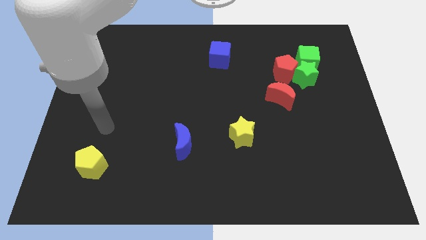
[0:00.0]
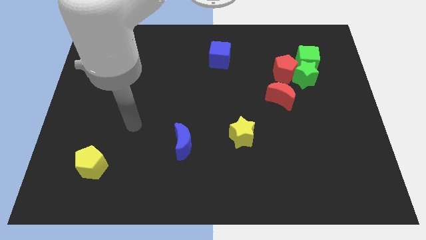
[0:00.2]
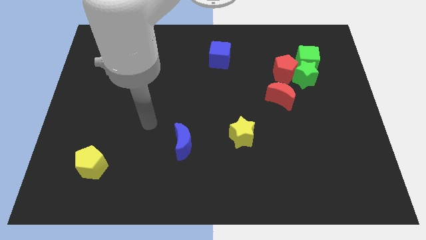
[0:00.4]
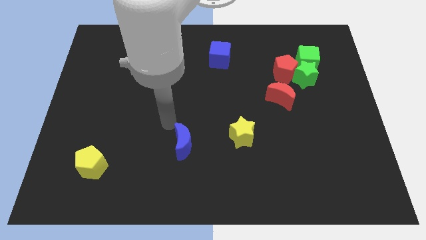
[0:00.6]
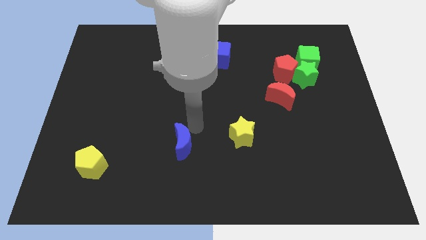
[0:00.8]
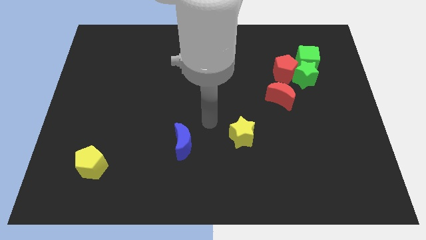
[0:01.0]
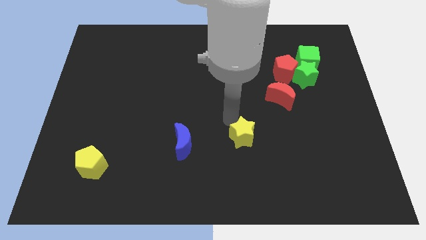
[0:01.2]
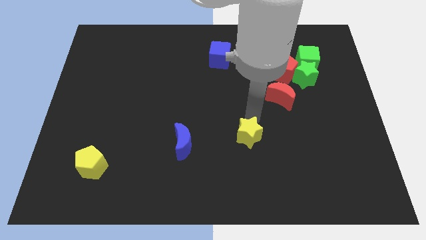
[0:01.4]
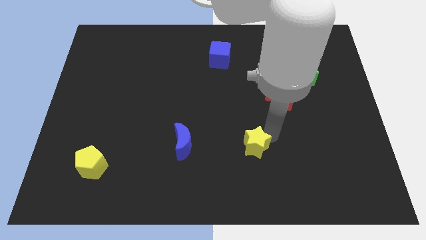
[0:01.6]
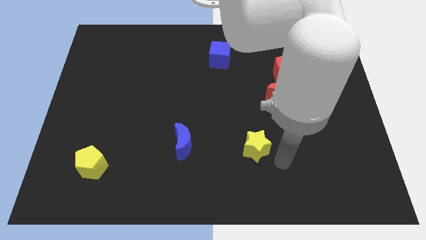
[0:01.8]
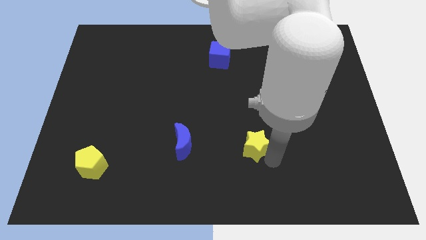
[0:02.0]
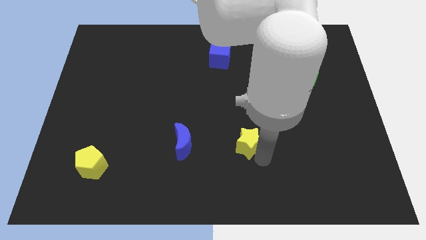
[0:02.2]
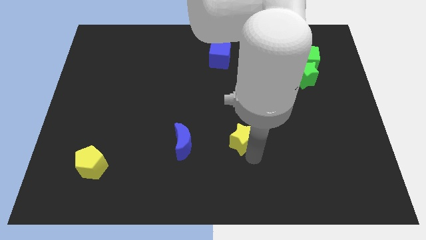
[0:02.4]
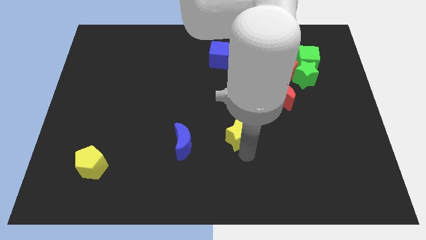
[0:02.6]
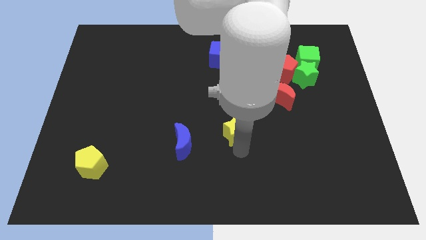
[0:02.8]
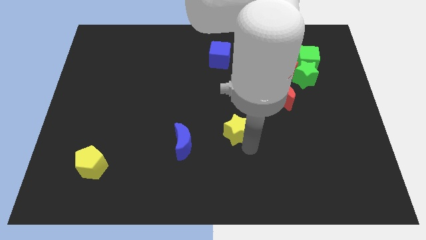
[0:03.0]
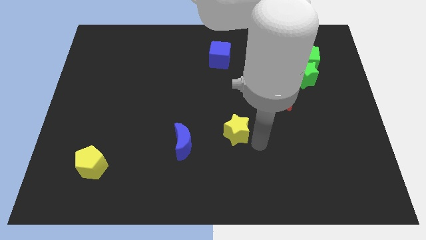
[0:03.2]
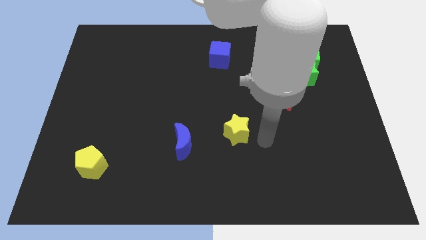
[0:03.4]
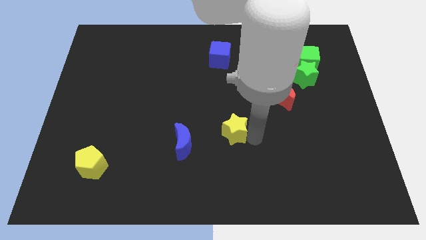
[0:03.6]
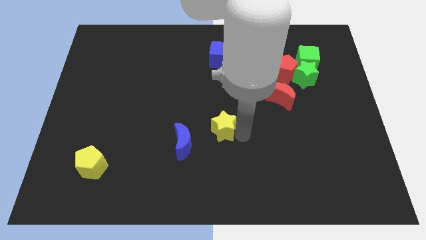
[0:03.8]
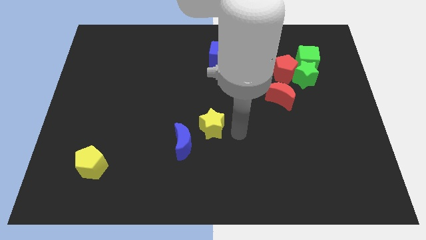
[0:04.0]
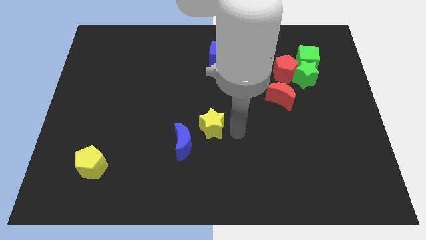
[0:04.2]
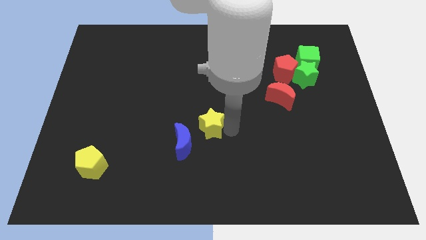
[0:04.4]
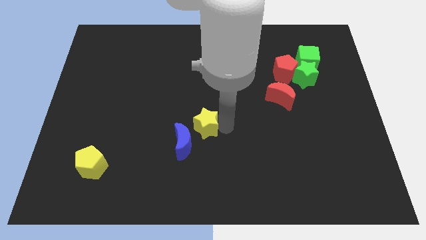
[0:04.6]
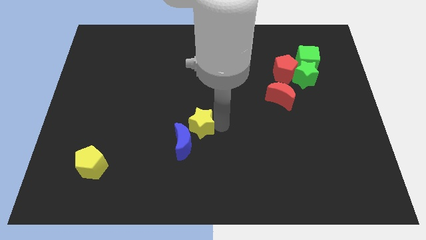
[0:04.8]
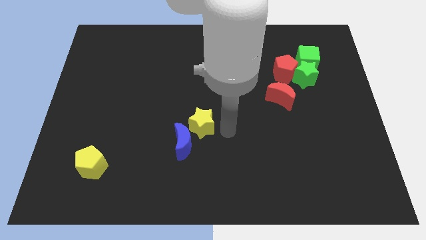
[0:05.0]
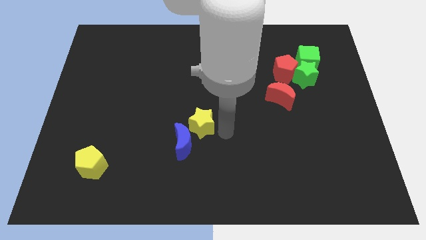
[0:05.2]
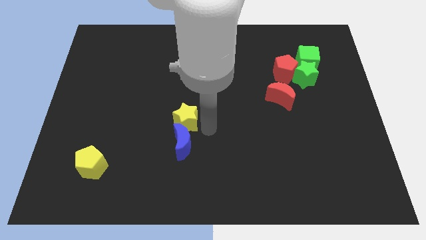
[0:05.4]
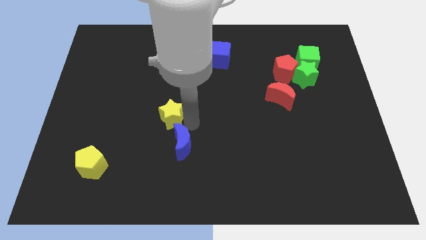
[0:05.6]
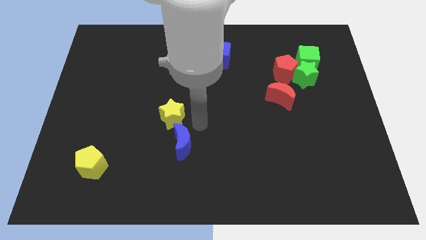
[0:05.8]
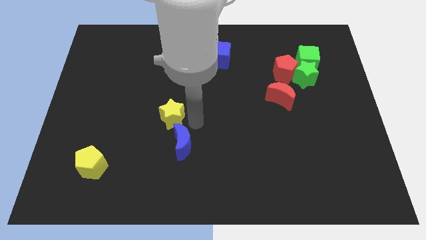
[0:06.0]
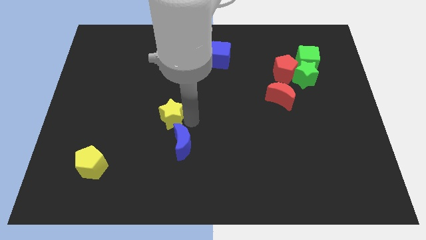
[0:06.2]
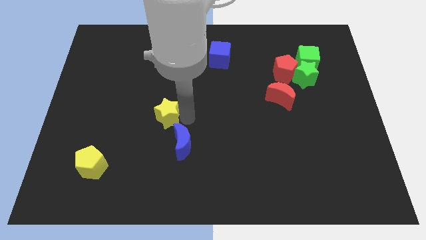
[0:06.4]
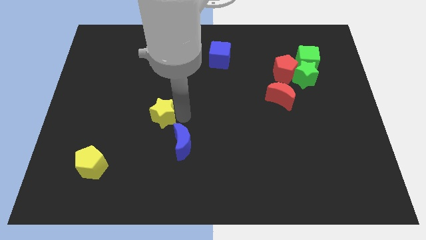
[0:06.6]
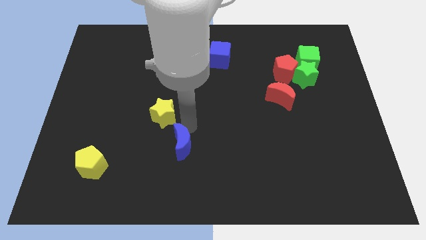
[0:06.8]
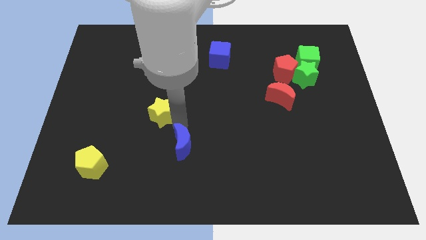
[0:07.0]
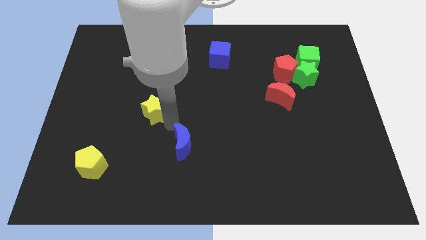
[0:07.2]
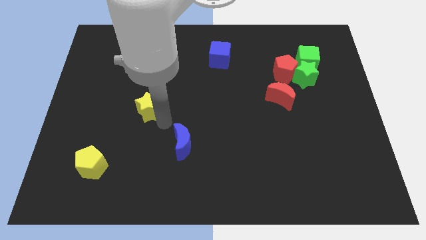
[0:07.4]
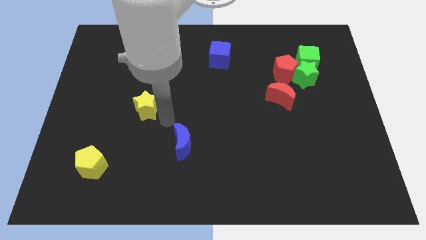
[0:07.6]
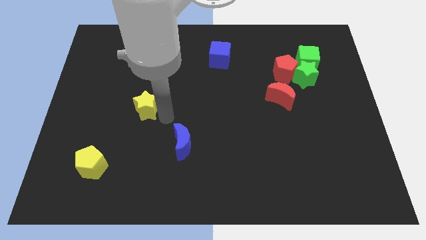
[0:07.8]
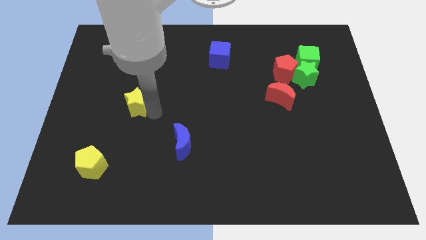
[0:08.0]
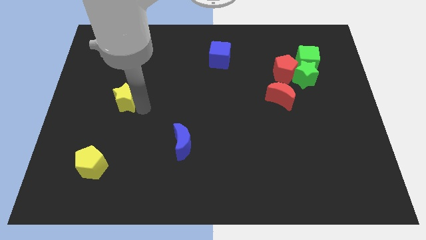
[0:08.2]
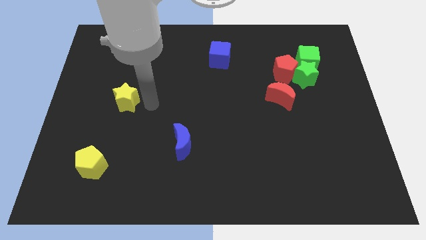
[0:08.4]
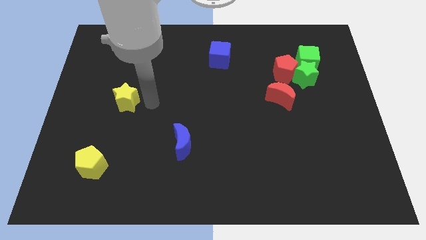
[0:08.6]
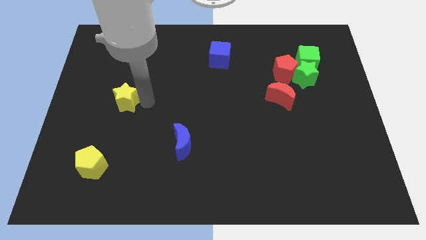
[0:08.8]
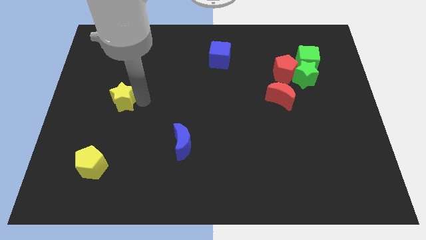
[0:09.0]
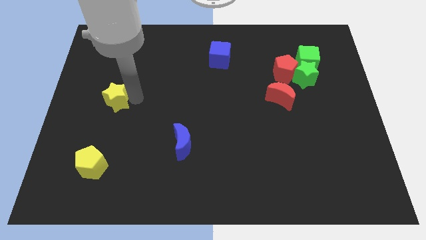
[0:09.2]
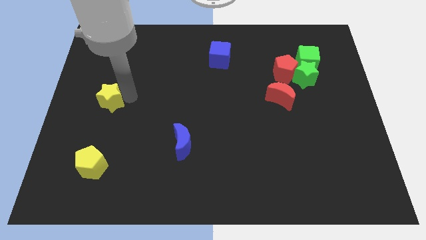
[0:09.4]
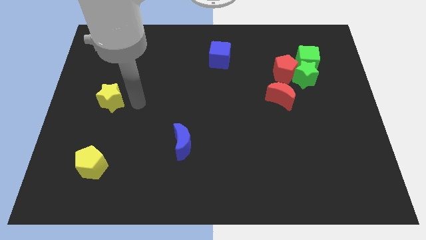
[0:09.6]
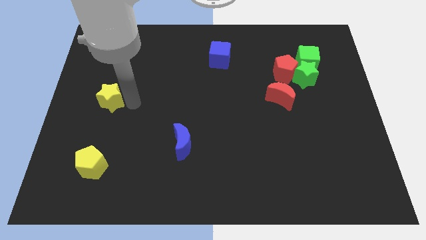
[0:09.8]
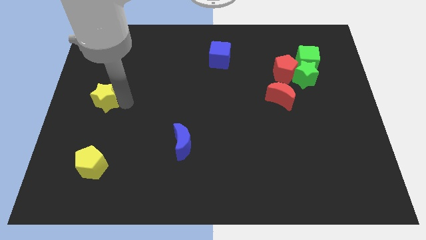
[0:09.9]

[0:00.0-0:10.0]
slide the yellow star to the left side
